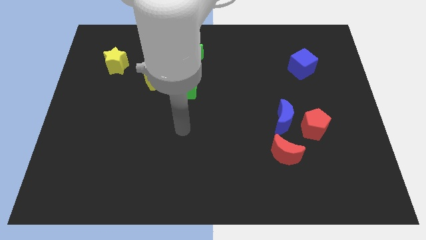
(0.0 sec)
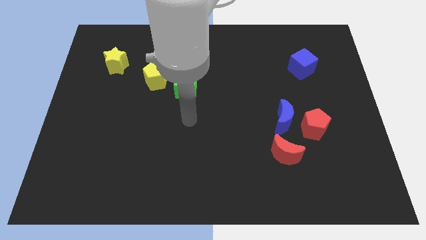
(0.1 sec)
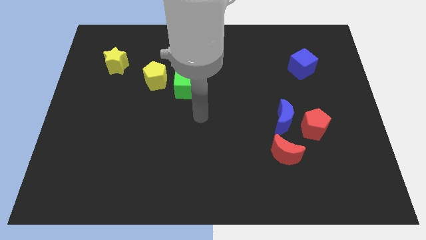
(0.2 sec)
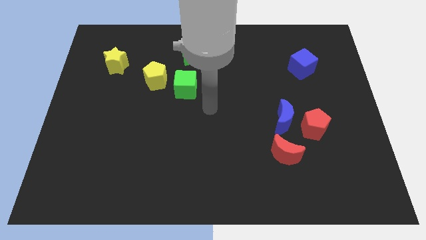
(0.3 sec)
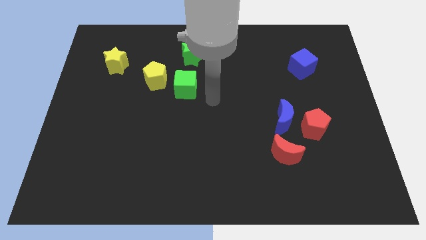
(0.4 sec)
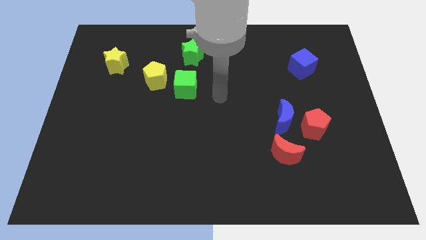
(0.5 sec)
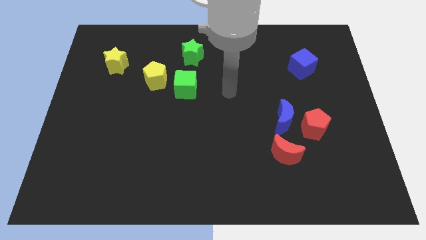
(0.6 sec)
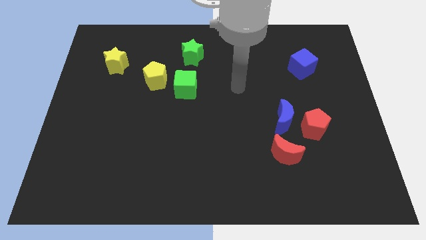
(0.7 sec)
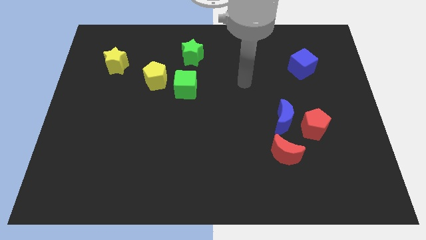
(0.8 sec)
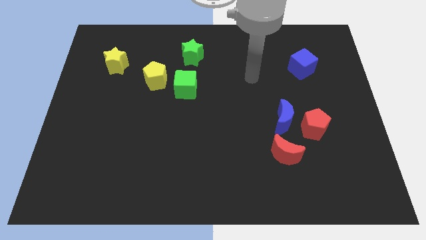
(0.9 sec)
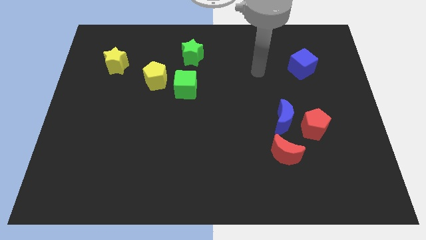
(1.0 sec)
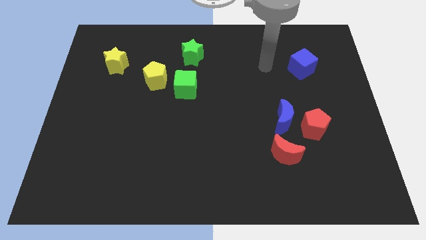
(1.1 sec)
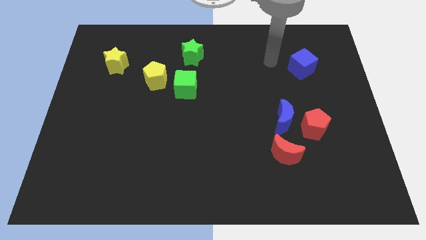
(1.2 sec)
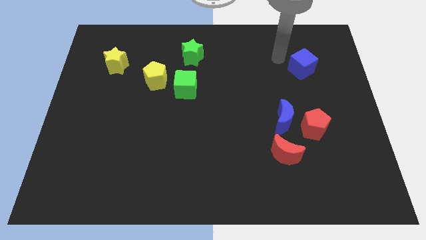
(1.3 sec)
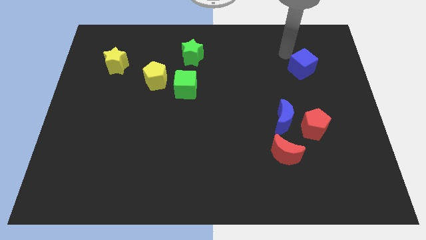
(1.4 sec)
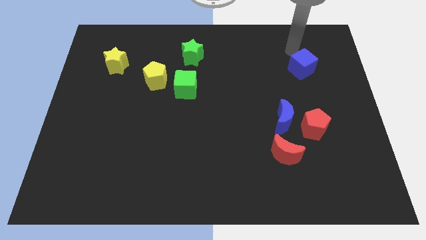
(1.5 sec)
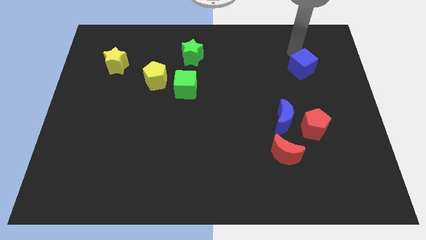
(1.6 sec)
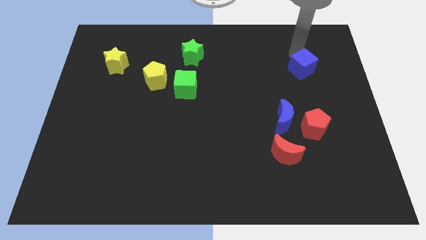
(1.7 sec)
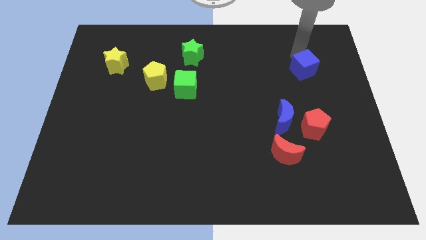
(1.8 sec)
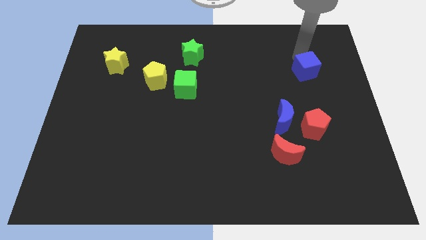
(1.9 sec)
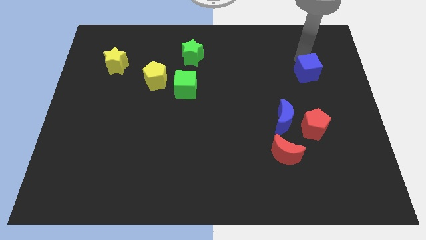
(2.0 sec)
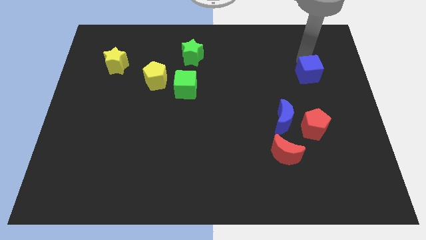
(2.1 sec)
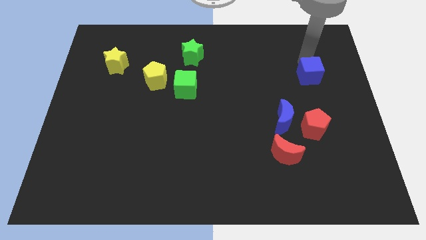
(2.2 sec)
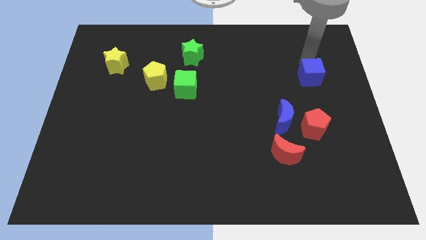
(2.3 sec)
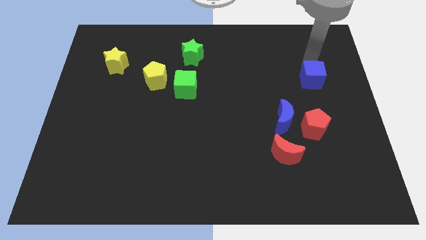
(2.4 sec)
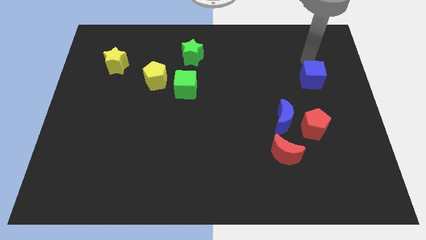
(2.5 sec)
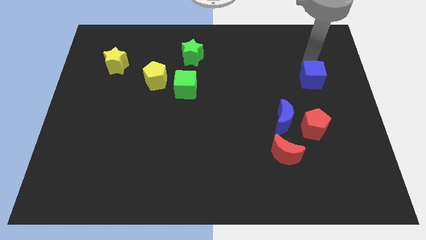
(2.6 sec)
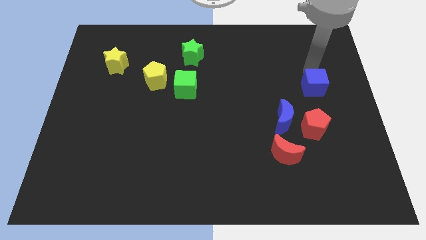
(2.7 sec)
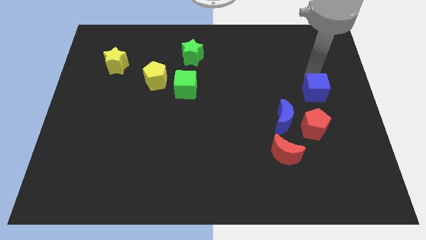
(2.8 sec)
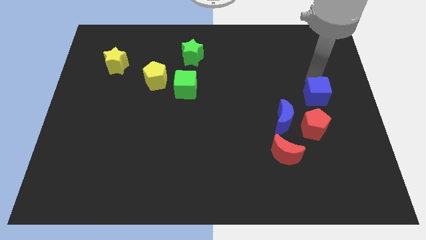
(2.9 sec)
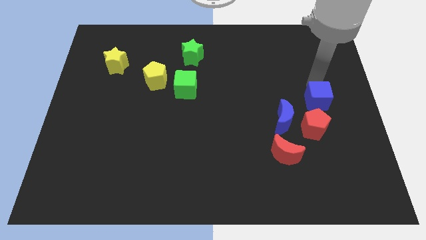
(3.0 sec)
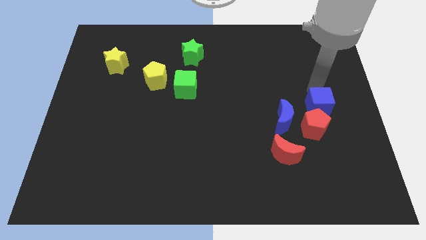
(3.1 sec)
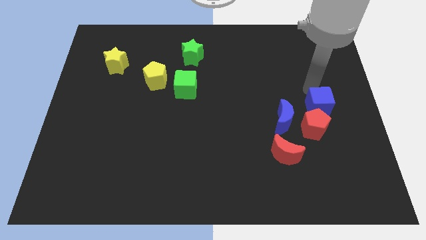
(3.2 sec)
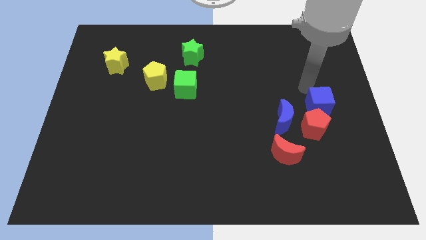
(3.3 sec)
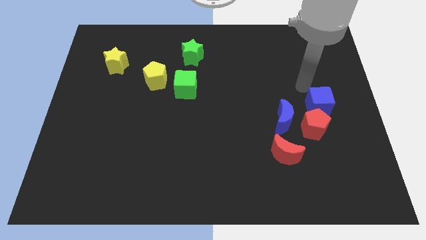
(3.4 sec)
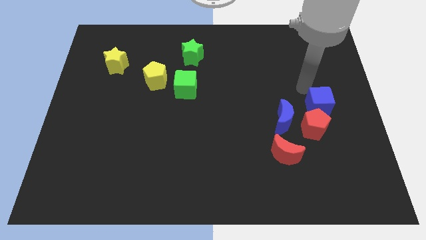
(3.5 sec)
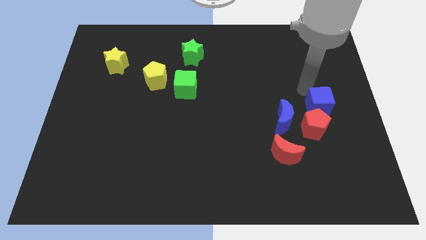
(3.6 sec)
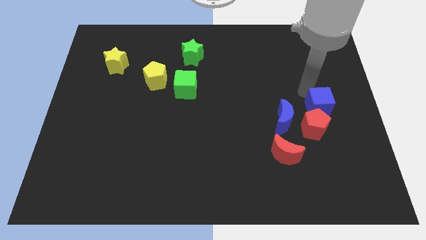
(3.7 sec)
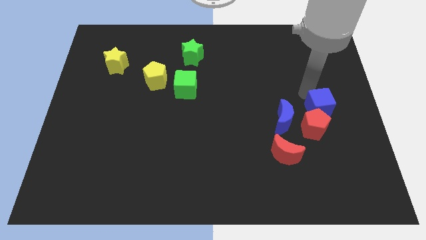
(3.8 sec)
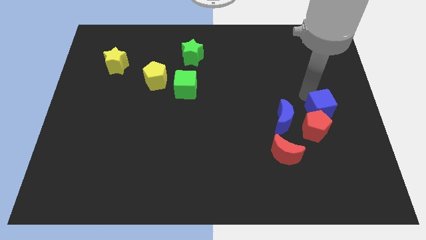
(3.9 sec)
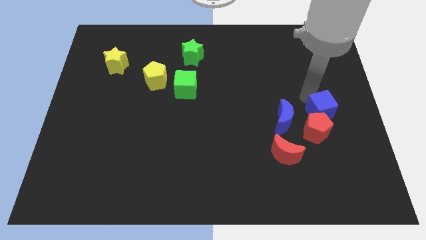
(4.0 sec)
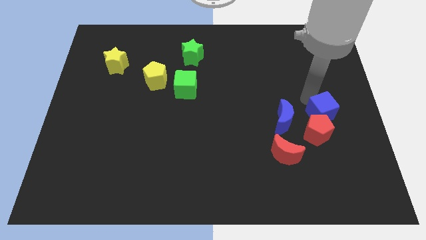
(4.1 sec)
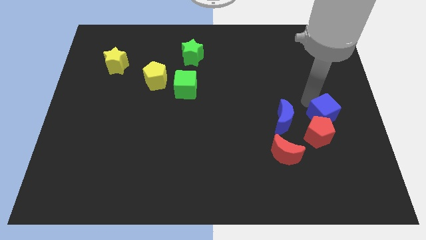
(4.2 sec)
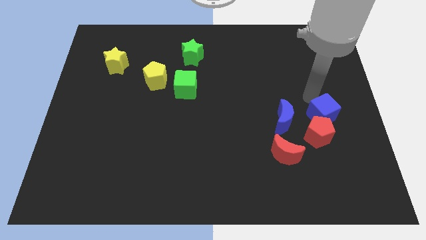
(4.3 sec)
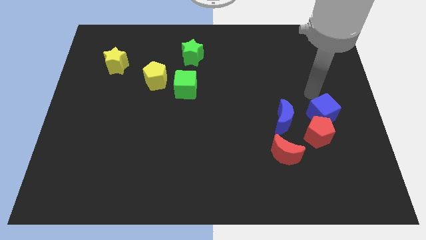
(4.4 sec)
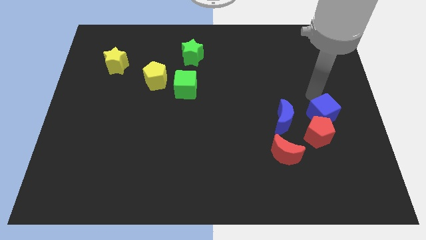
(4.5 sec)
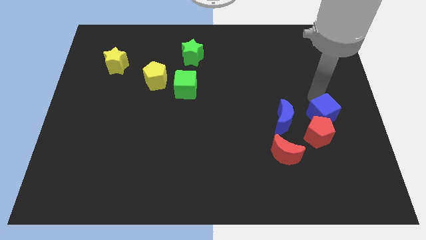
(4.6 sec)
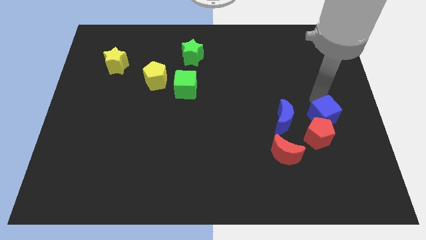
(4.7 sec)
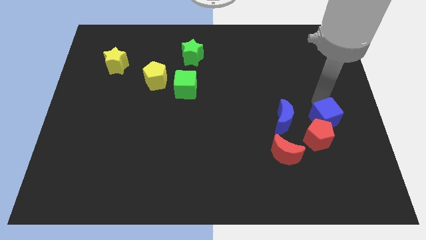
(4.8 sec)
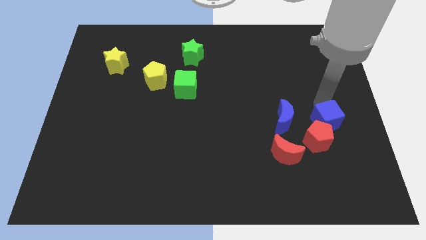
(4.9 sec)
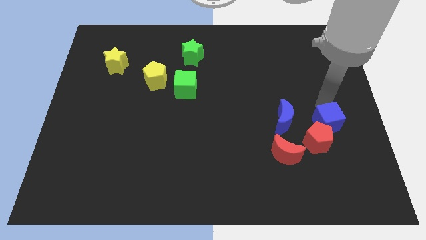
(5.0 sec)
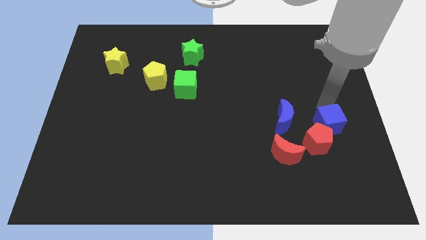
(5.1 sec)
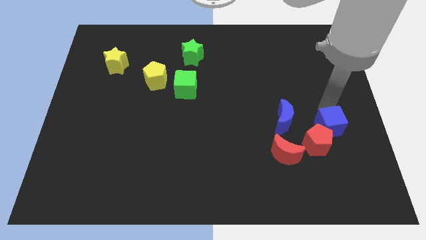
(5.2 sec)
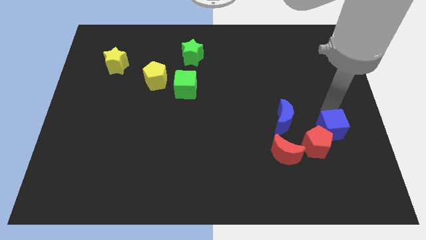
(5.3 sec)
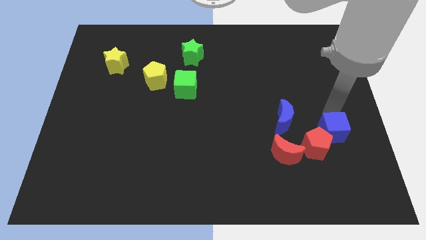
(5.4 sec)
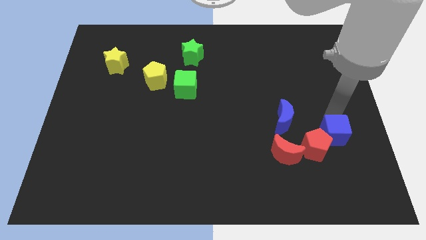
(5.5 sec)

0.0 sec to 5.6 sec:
push the blue cube downwards

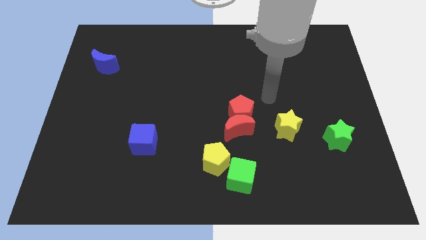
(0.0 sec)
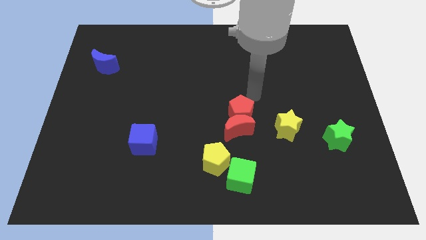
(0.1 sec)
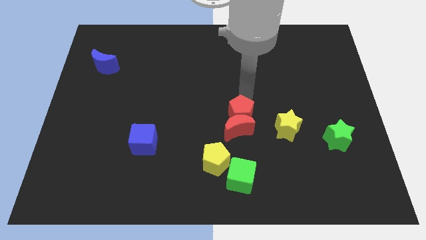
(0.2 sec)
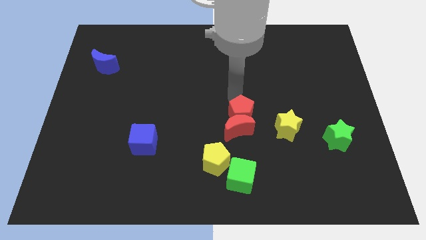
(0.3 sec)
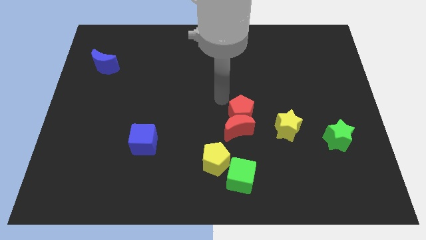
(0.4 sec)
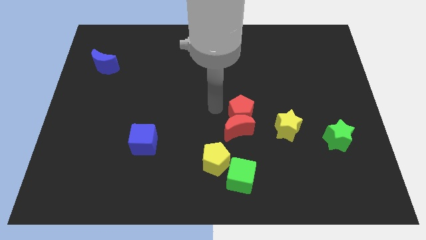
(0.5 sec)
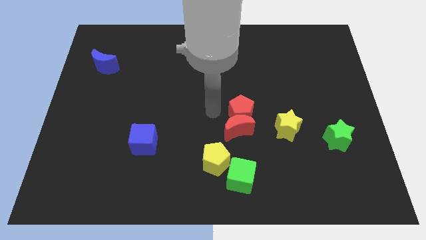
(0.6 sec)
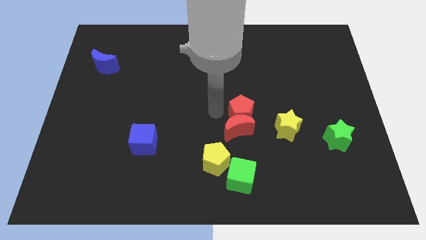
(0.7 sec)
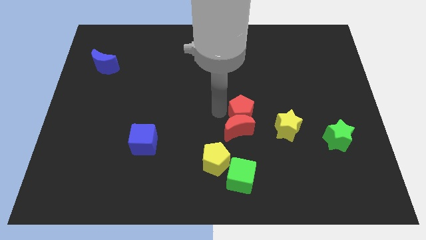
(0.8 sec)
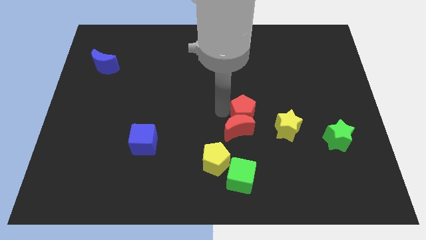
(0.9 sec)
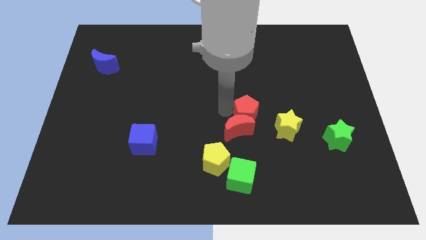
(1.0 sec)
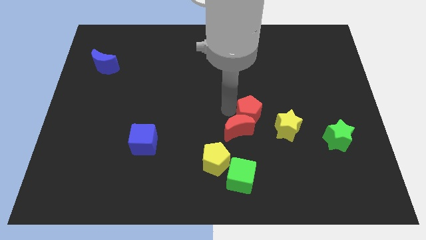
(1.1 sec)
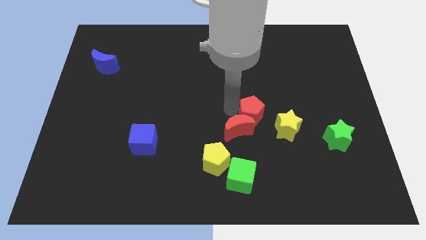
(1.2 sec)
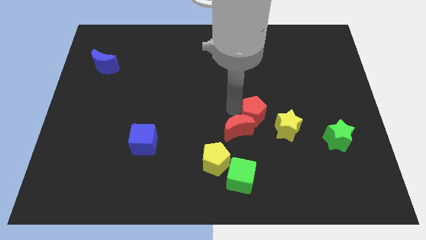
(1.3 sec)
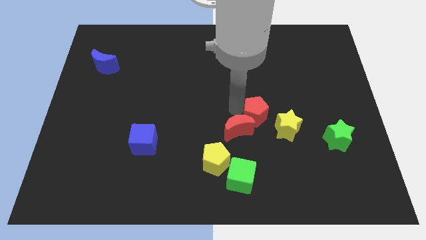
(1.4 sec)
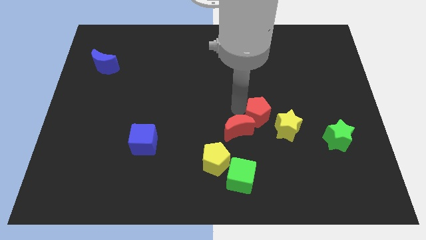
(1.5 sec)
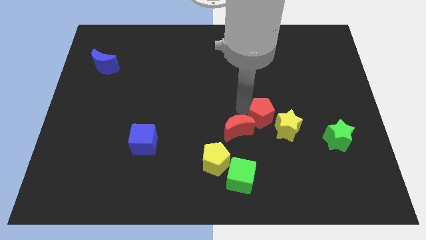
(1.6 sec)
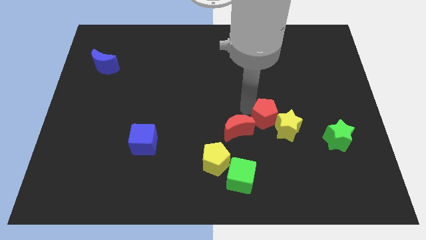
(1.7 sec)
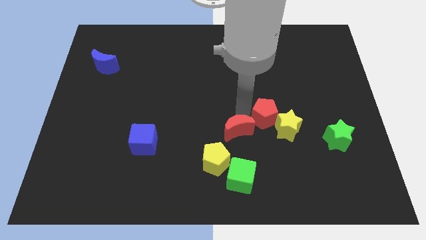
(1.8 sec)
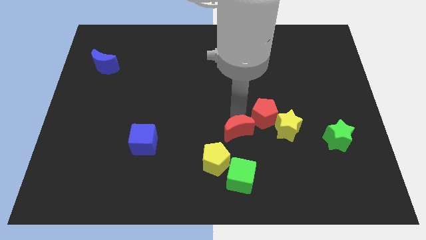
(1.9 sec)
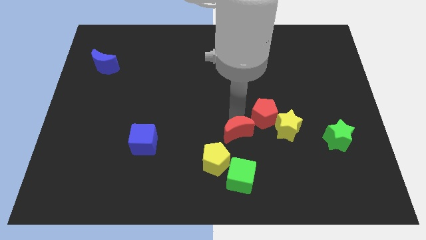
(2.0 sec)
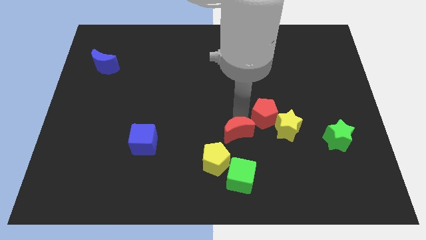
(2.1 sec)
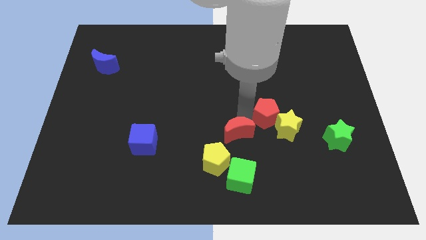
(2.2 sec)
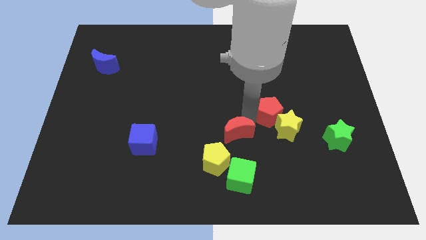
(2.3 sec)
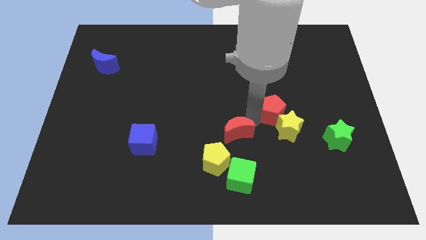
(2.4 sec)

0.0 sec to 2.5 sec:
slightly slide the red pentagon to the right
